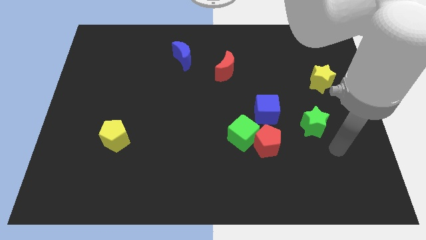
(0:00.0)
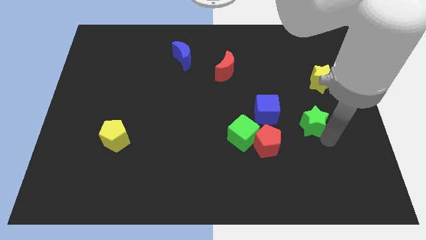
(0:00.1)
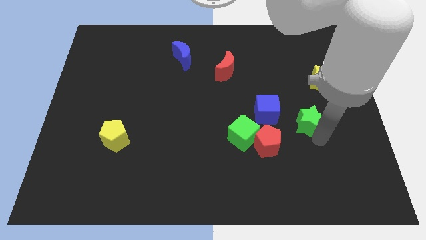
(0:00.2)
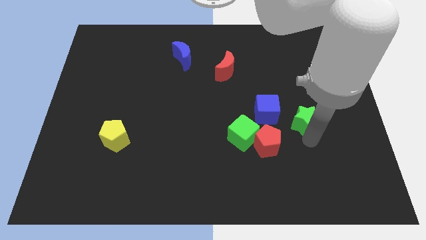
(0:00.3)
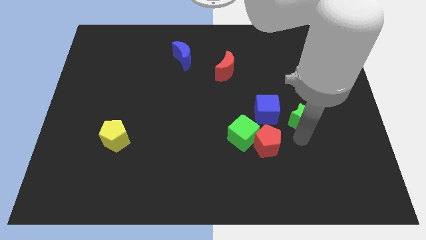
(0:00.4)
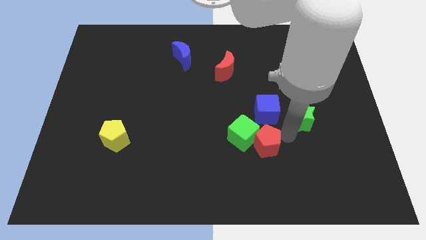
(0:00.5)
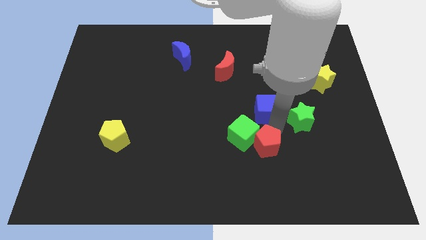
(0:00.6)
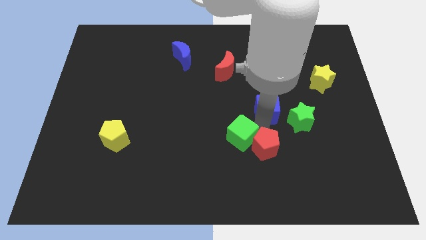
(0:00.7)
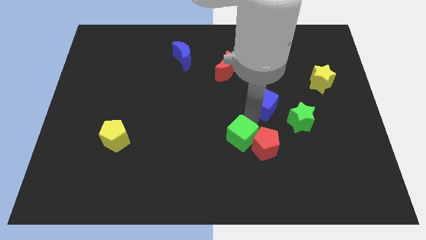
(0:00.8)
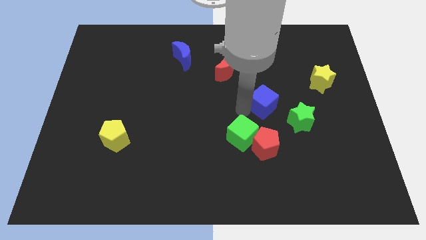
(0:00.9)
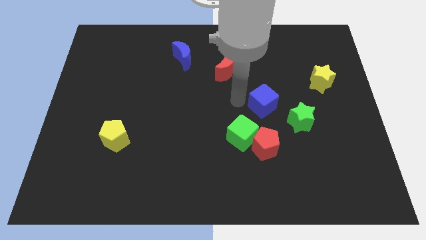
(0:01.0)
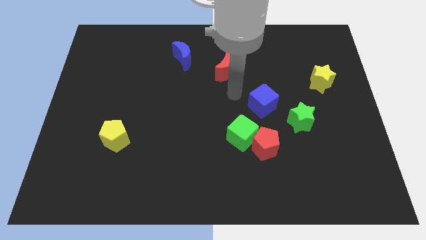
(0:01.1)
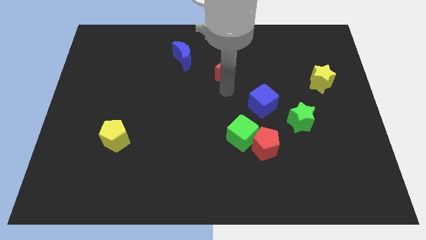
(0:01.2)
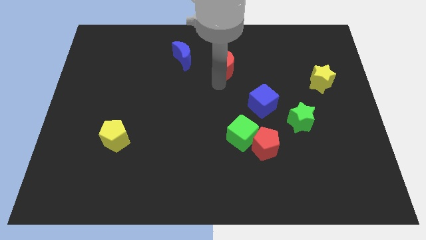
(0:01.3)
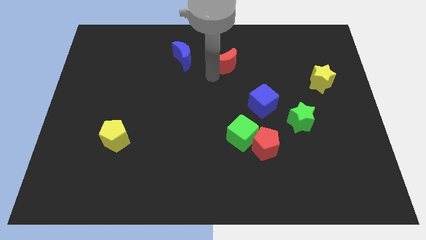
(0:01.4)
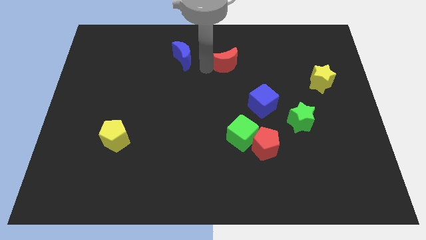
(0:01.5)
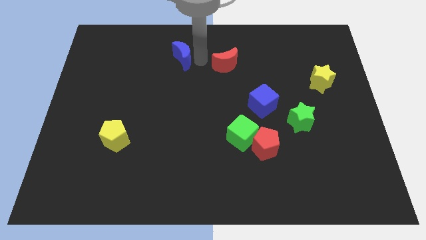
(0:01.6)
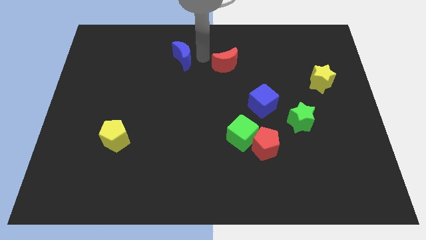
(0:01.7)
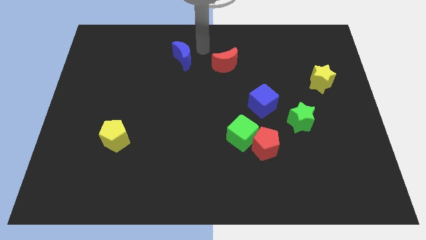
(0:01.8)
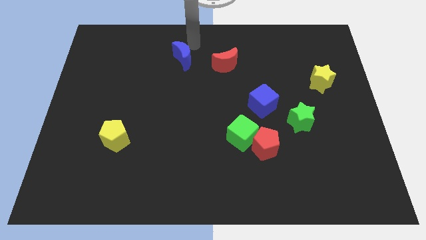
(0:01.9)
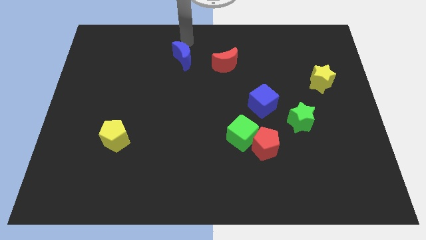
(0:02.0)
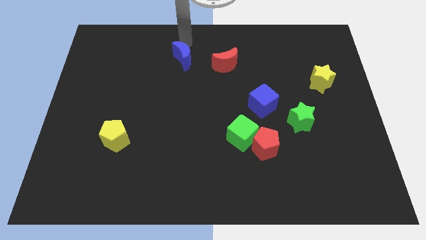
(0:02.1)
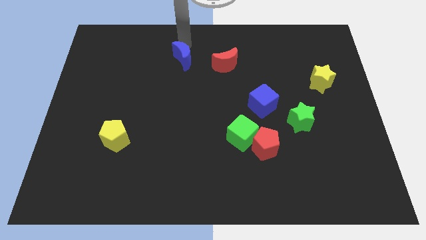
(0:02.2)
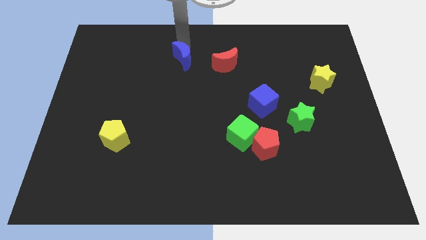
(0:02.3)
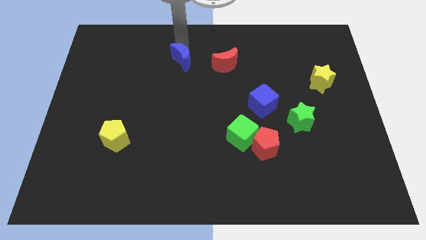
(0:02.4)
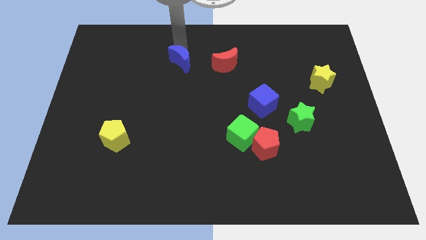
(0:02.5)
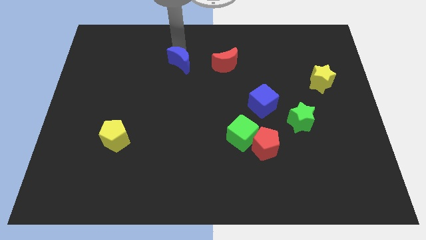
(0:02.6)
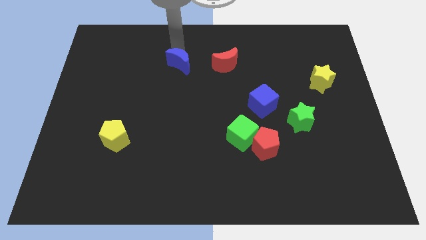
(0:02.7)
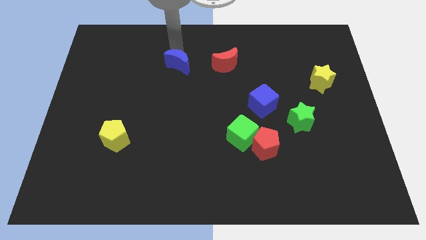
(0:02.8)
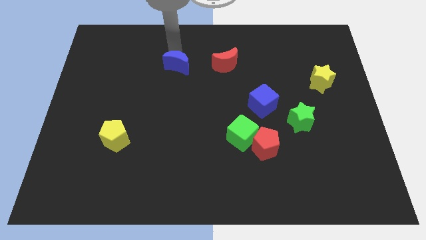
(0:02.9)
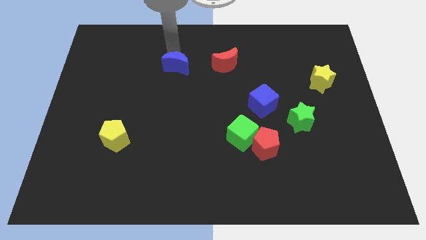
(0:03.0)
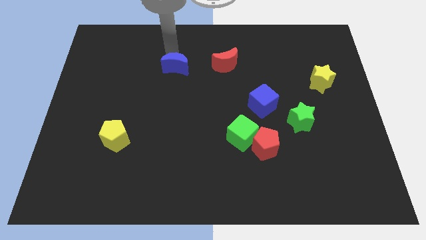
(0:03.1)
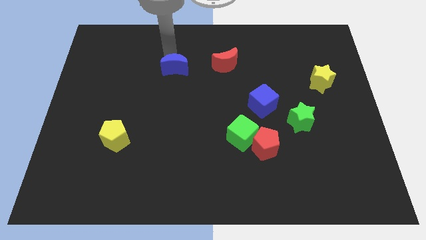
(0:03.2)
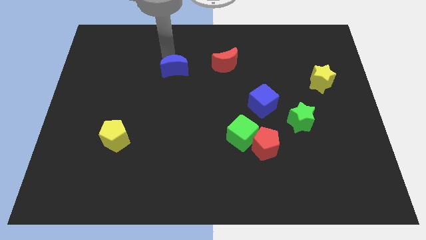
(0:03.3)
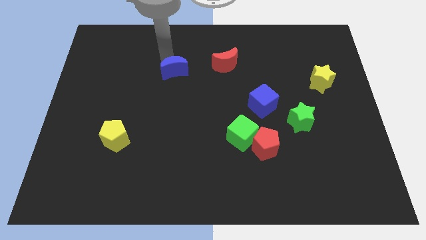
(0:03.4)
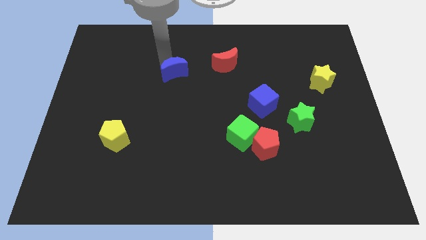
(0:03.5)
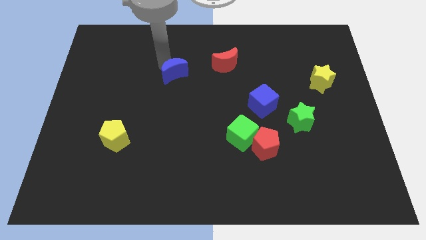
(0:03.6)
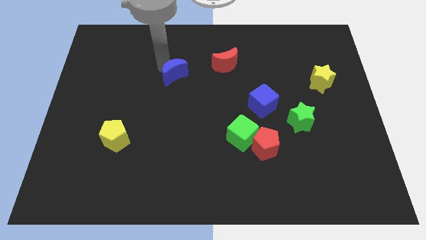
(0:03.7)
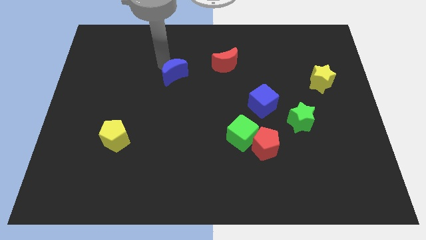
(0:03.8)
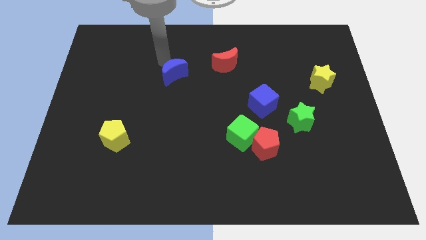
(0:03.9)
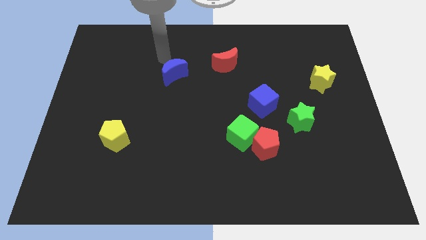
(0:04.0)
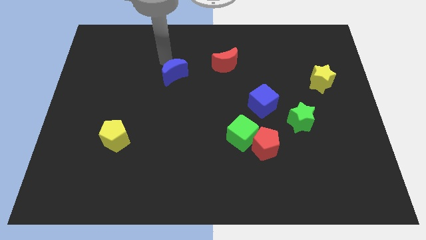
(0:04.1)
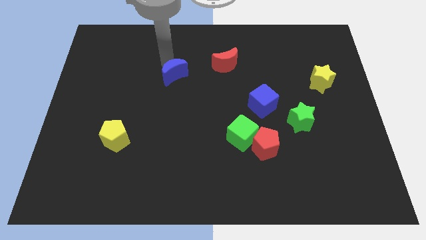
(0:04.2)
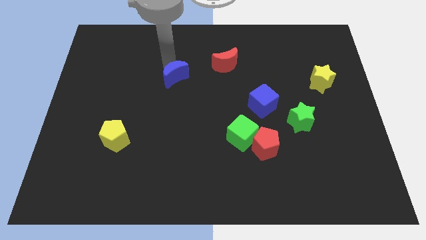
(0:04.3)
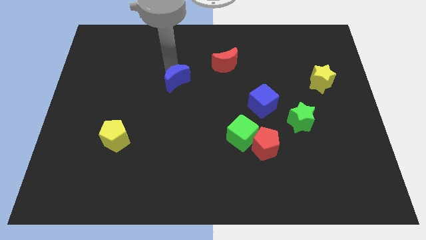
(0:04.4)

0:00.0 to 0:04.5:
move the blue moon a bit down

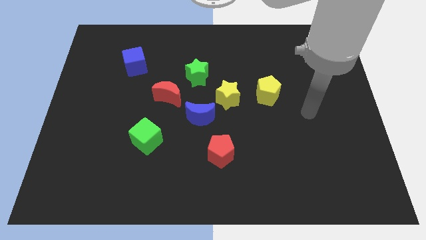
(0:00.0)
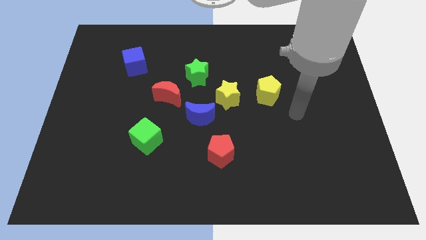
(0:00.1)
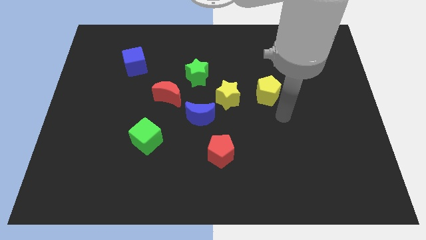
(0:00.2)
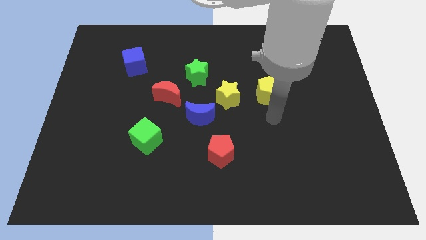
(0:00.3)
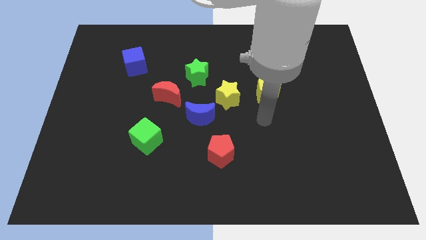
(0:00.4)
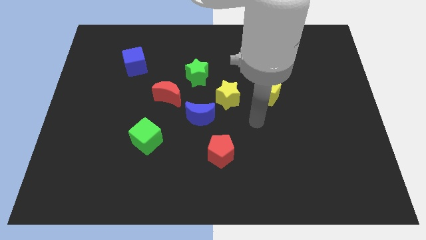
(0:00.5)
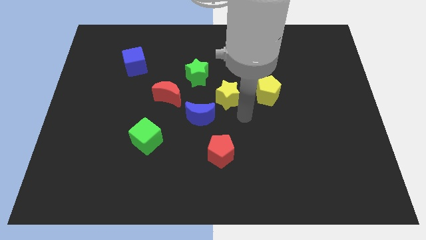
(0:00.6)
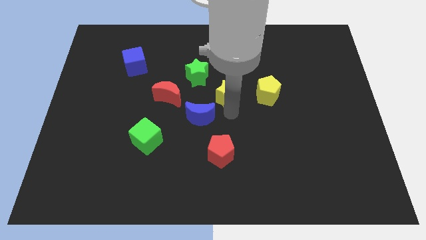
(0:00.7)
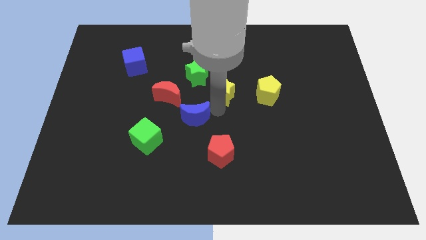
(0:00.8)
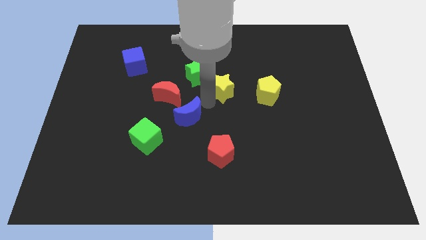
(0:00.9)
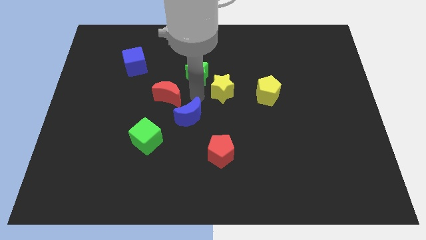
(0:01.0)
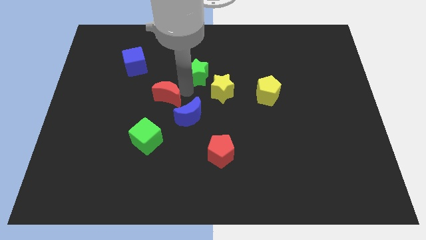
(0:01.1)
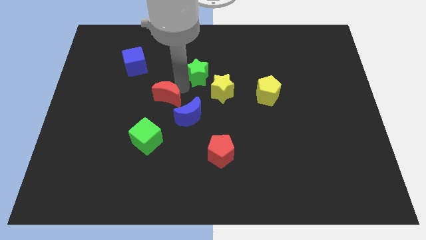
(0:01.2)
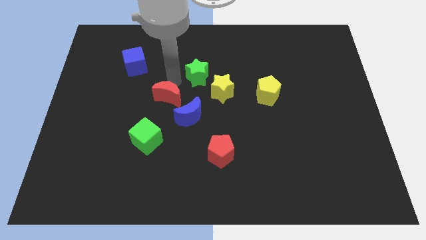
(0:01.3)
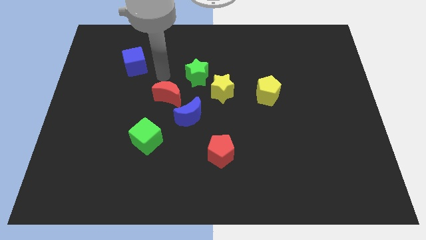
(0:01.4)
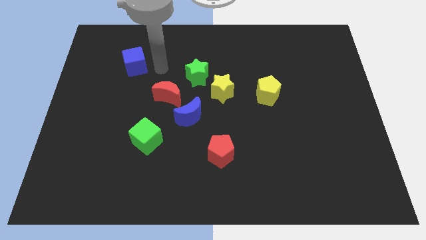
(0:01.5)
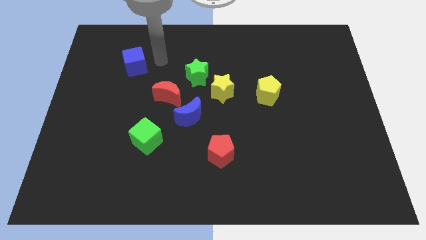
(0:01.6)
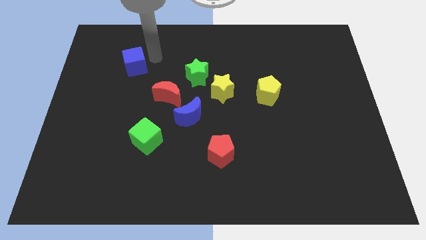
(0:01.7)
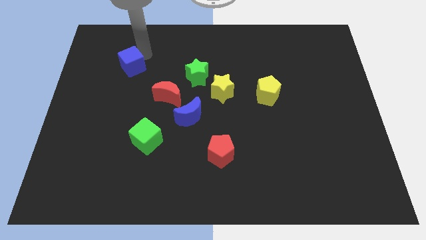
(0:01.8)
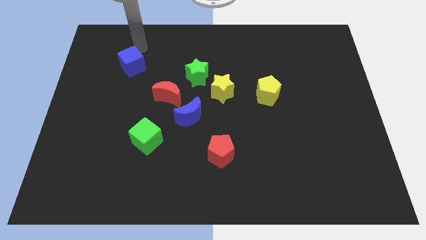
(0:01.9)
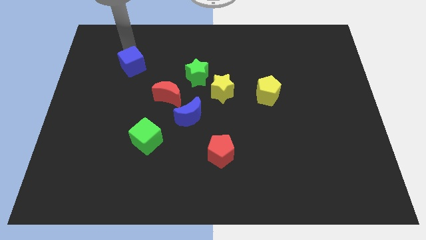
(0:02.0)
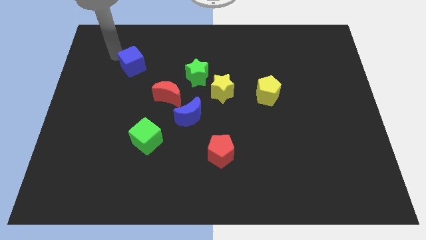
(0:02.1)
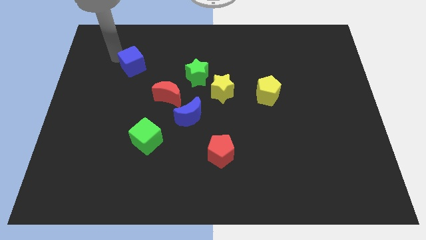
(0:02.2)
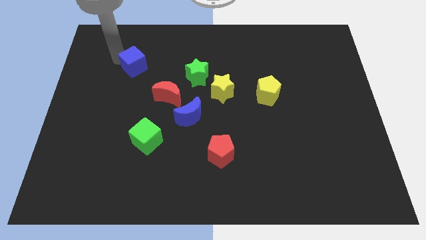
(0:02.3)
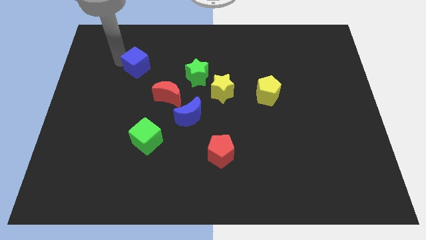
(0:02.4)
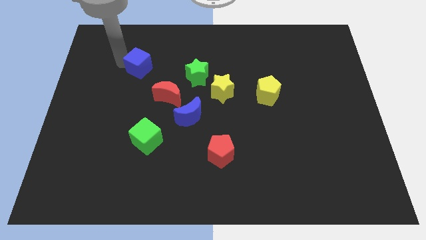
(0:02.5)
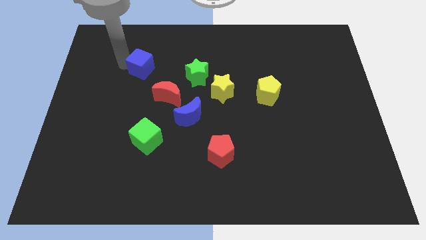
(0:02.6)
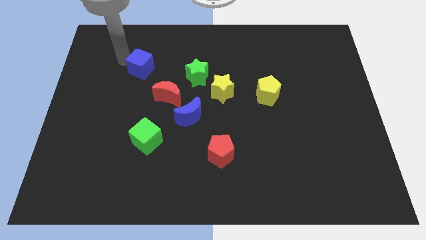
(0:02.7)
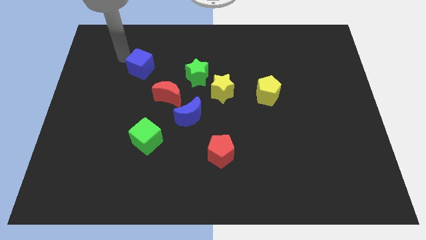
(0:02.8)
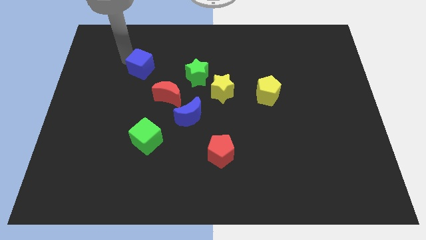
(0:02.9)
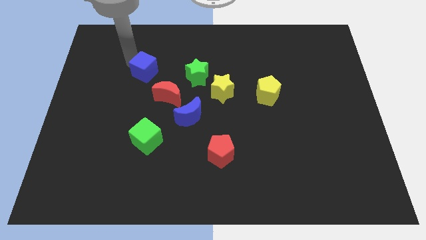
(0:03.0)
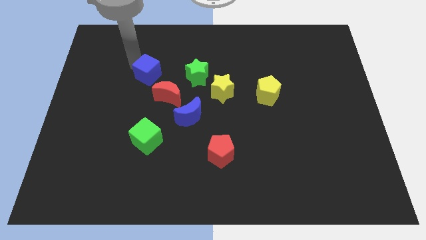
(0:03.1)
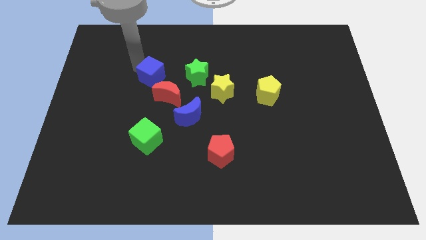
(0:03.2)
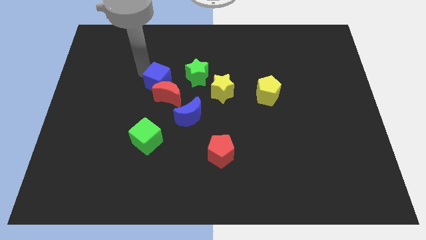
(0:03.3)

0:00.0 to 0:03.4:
slightly push the blue cube downwards and right diagonally

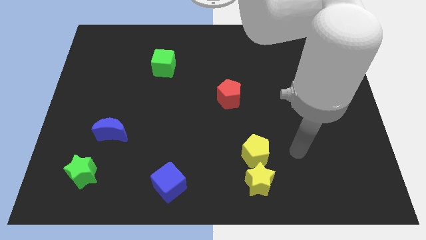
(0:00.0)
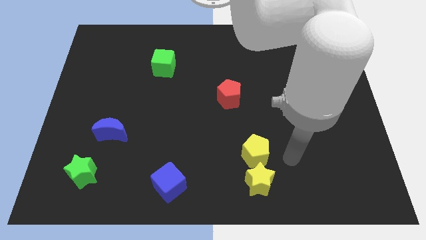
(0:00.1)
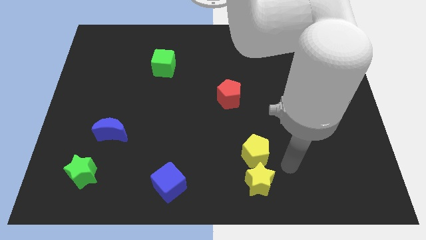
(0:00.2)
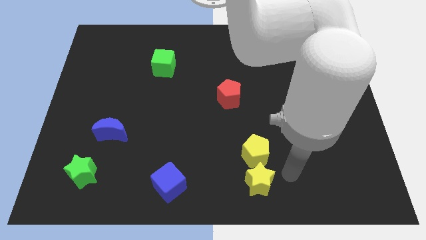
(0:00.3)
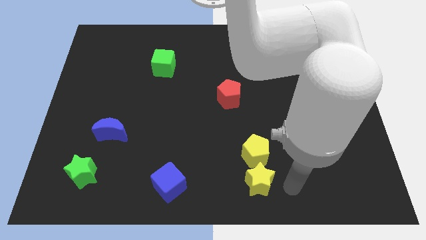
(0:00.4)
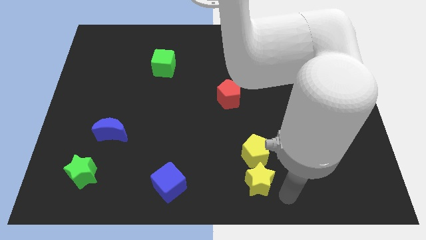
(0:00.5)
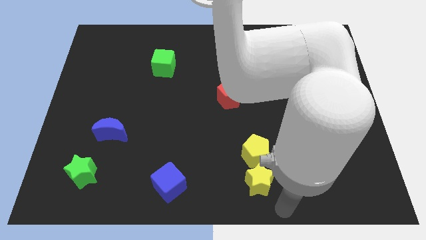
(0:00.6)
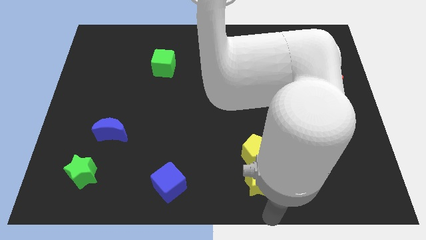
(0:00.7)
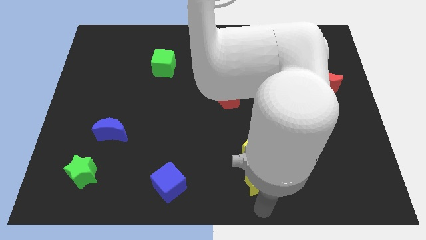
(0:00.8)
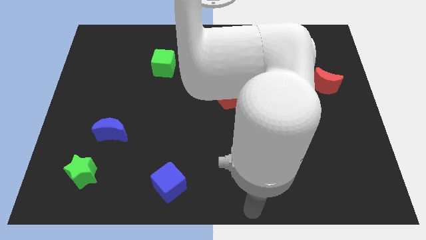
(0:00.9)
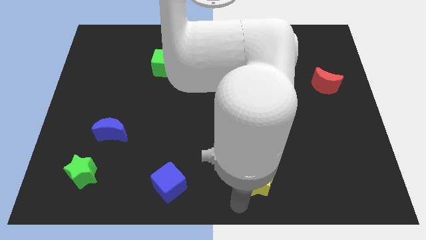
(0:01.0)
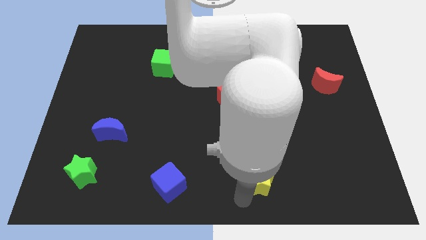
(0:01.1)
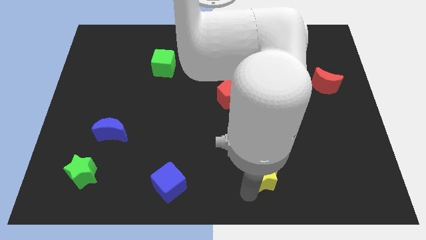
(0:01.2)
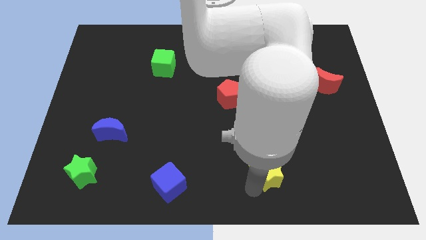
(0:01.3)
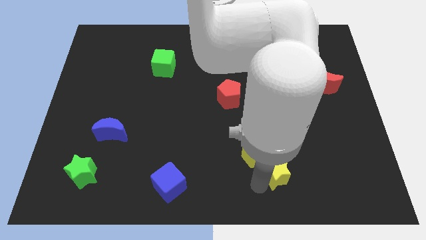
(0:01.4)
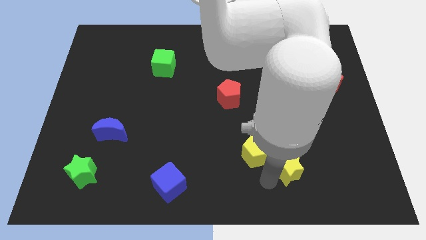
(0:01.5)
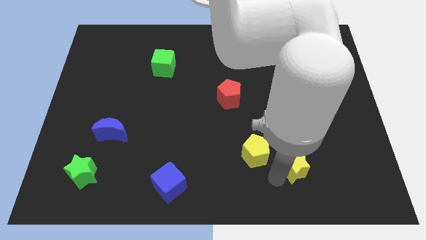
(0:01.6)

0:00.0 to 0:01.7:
push the yellow star up and right somewhat
